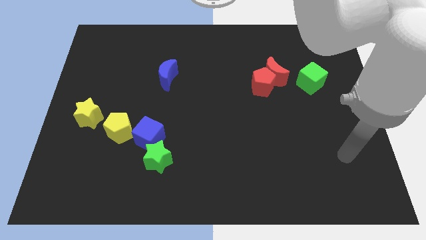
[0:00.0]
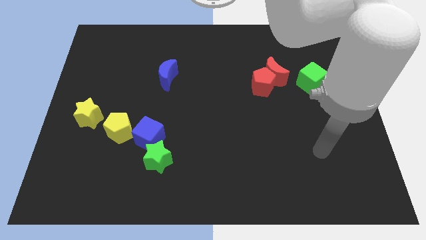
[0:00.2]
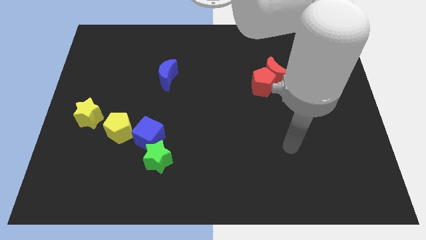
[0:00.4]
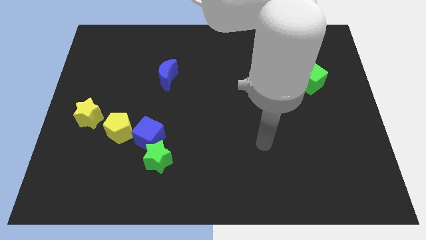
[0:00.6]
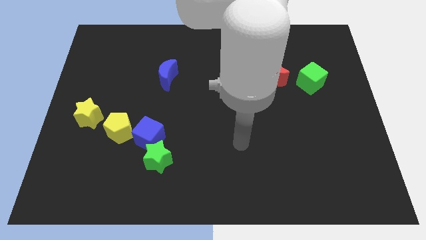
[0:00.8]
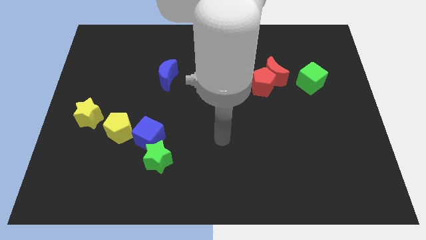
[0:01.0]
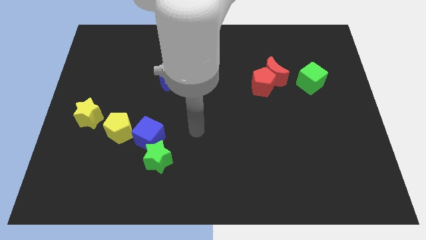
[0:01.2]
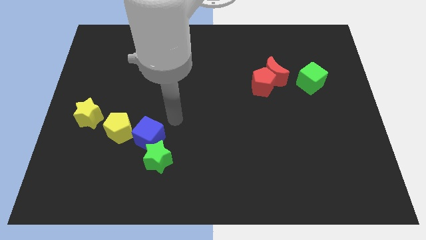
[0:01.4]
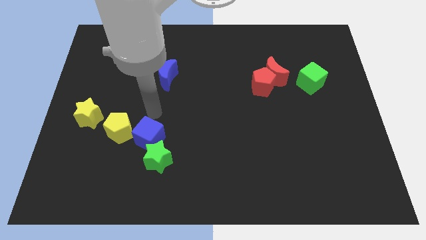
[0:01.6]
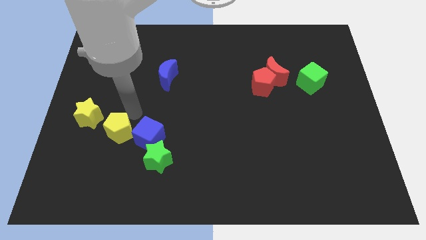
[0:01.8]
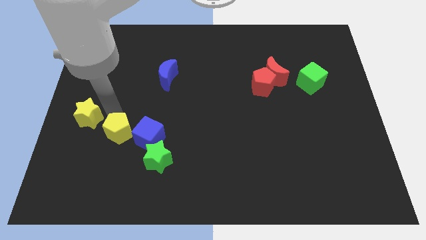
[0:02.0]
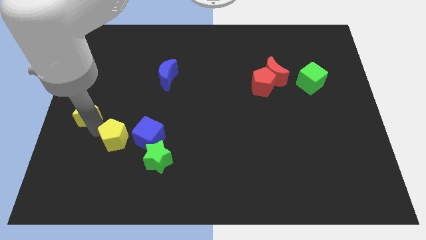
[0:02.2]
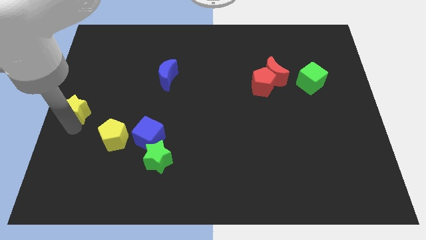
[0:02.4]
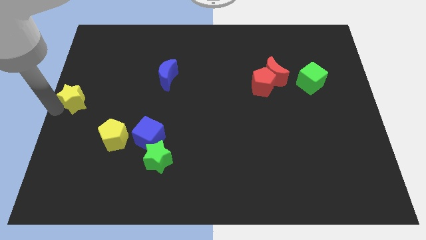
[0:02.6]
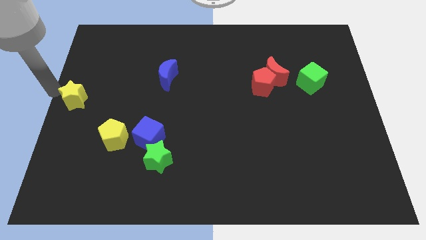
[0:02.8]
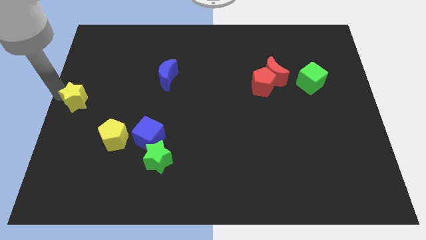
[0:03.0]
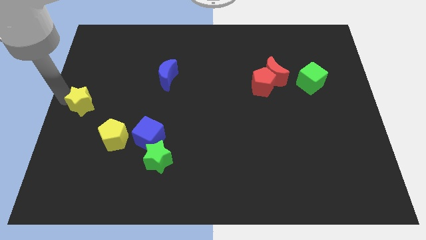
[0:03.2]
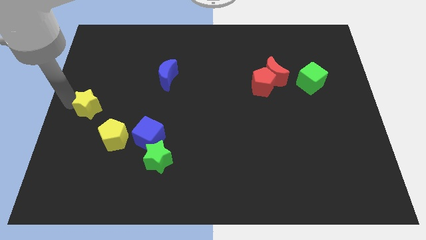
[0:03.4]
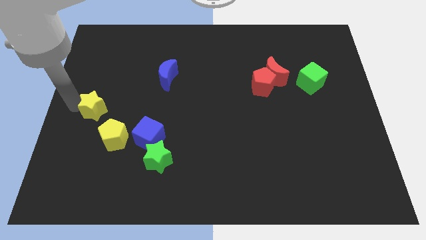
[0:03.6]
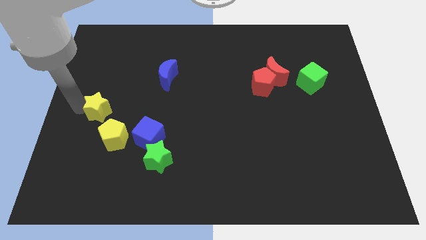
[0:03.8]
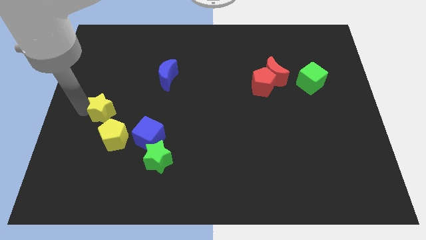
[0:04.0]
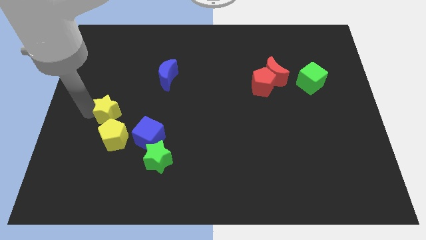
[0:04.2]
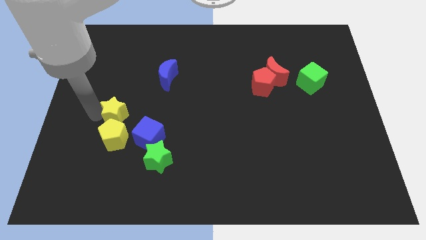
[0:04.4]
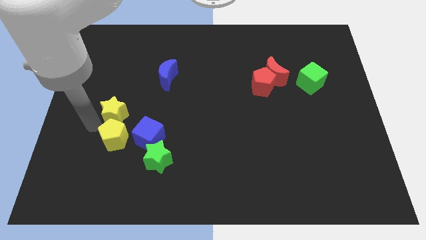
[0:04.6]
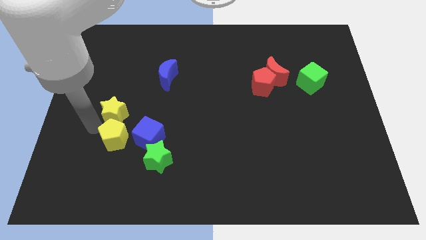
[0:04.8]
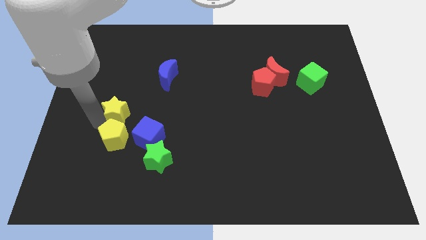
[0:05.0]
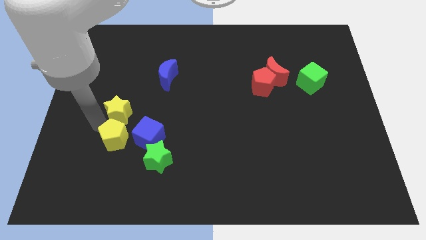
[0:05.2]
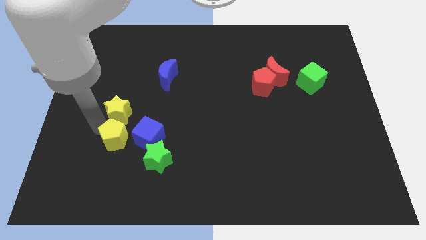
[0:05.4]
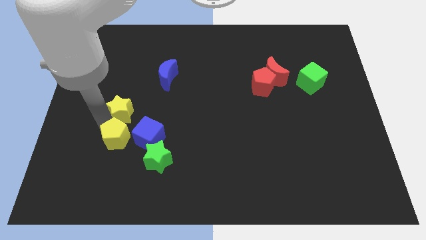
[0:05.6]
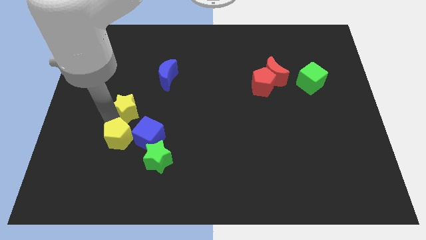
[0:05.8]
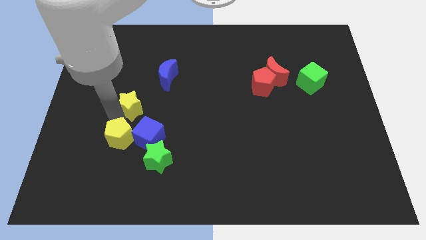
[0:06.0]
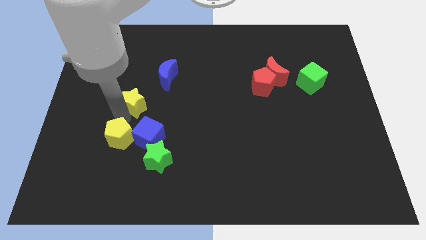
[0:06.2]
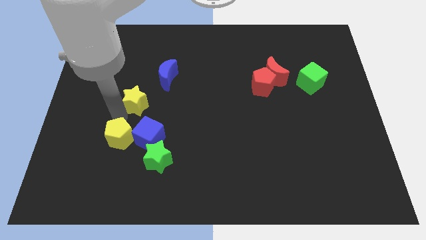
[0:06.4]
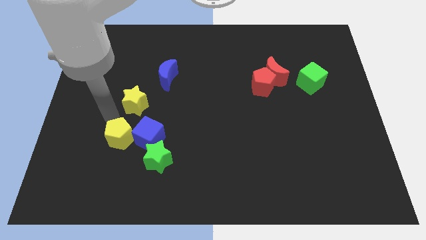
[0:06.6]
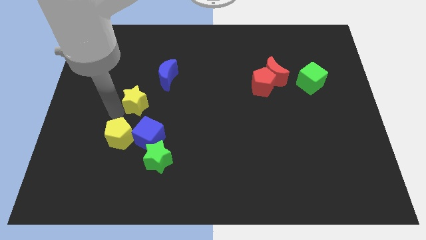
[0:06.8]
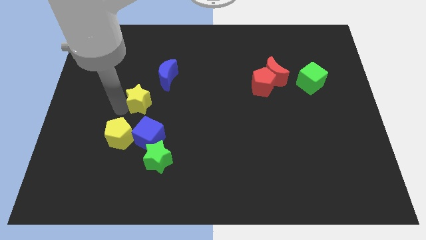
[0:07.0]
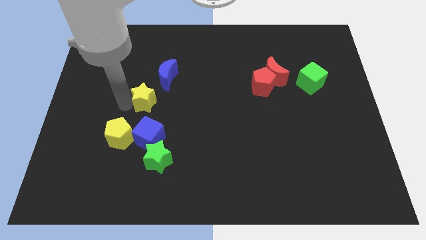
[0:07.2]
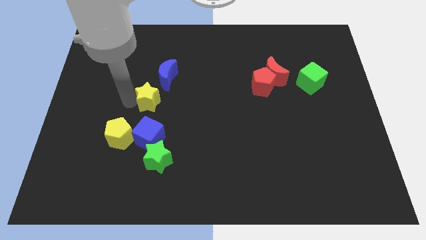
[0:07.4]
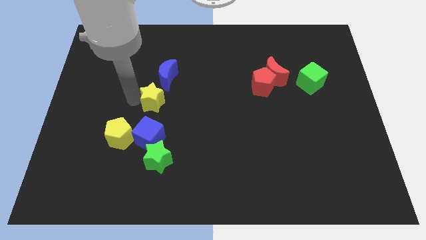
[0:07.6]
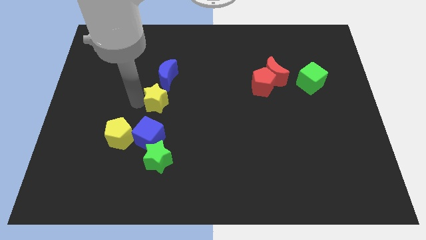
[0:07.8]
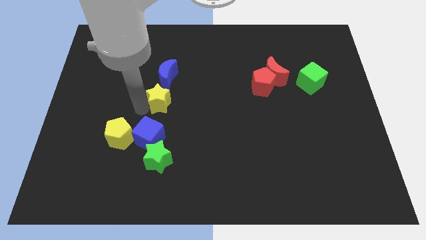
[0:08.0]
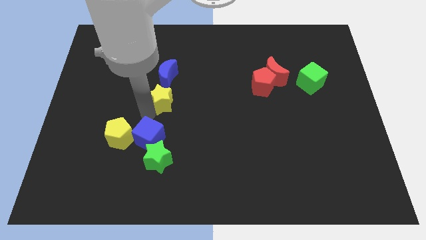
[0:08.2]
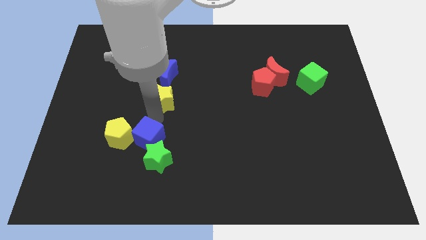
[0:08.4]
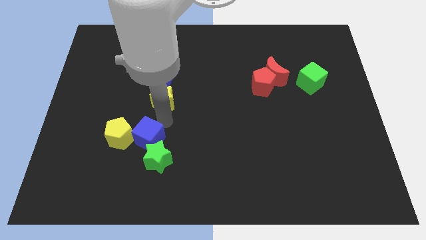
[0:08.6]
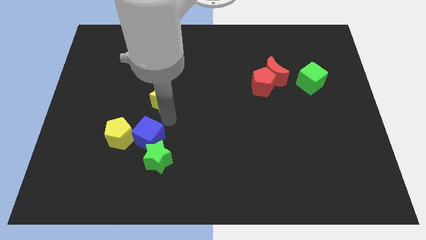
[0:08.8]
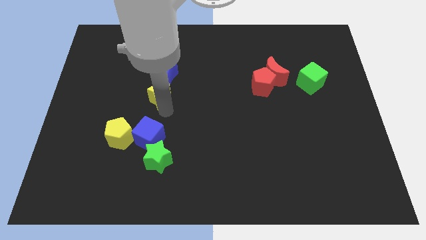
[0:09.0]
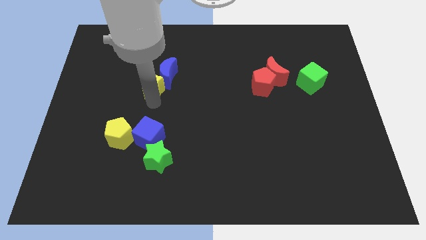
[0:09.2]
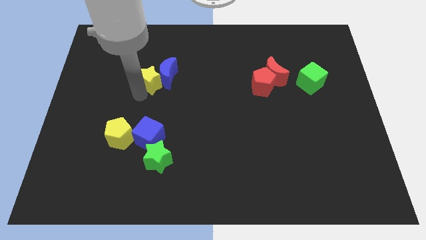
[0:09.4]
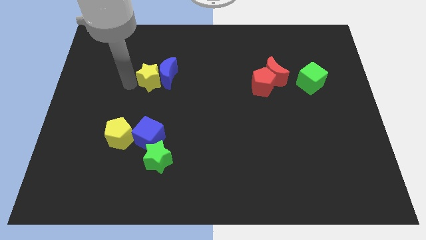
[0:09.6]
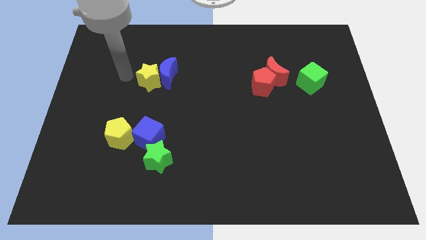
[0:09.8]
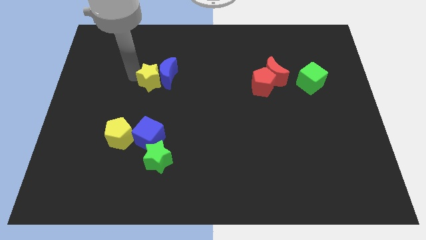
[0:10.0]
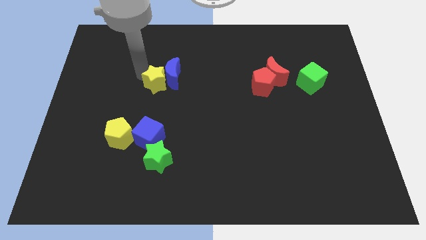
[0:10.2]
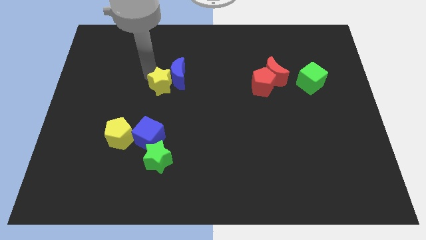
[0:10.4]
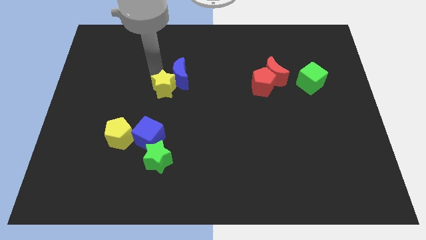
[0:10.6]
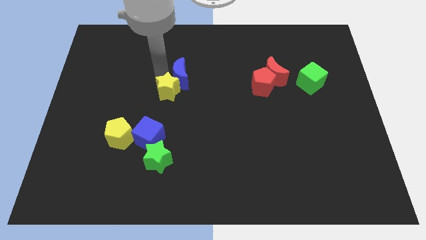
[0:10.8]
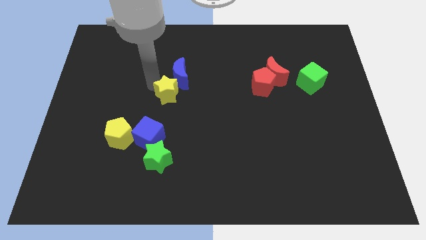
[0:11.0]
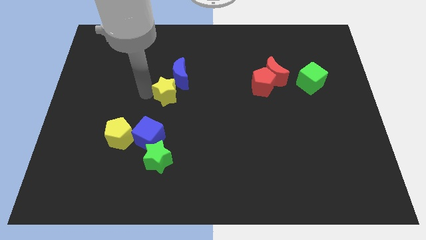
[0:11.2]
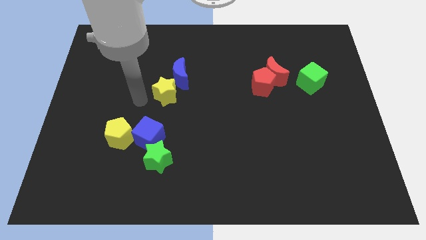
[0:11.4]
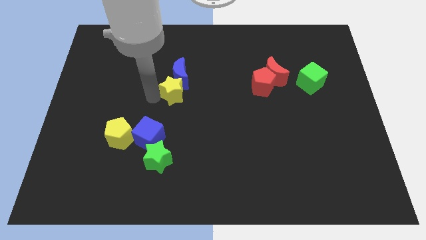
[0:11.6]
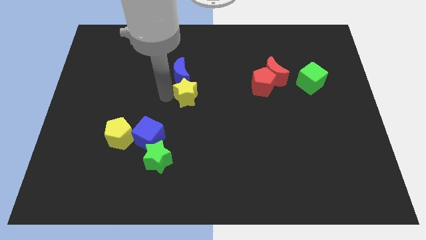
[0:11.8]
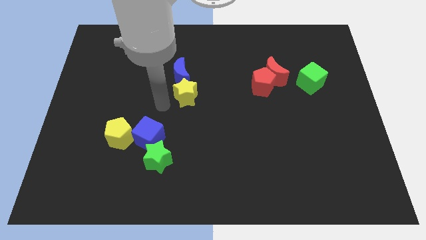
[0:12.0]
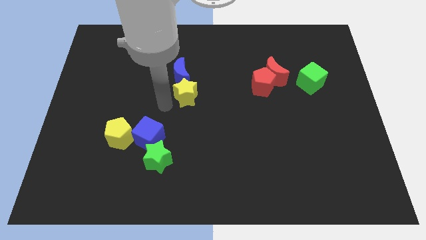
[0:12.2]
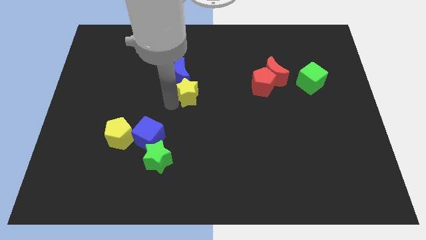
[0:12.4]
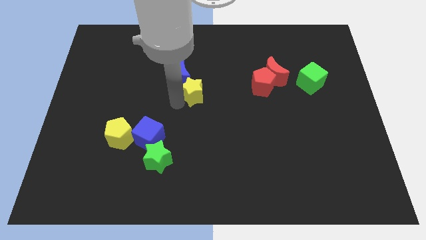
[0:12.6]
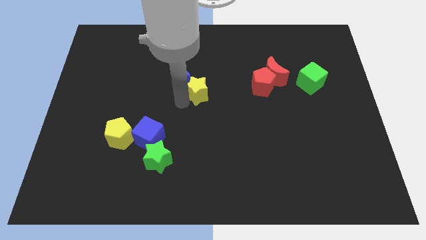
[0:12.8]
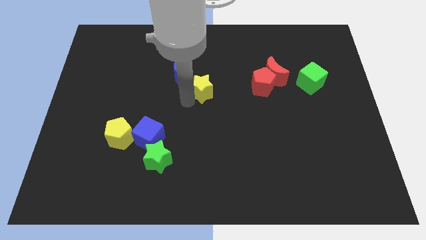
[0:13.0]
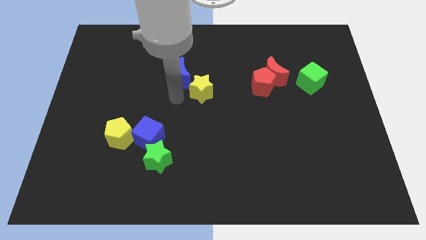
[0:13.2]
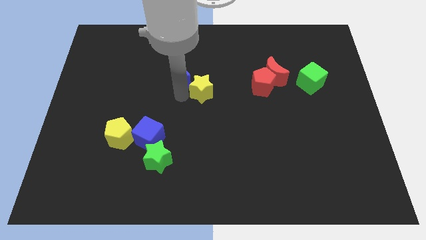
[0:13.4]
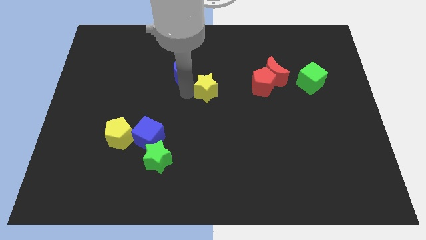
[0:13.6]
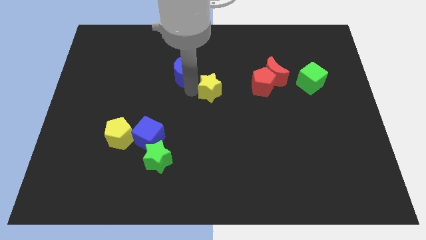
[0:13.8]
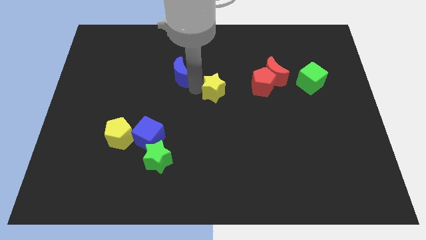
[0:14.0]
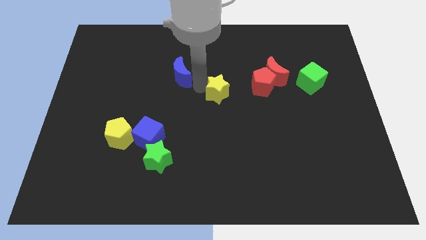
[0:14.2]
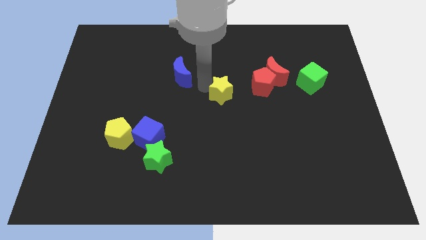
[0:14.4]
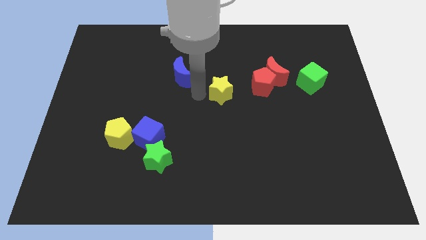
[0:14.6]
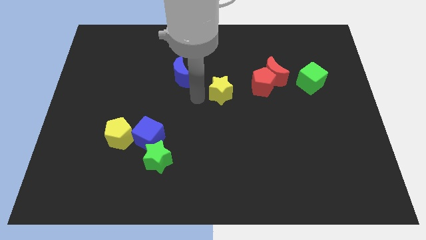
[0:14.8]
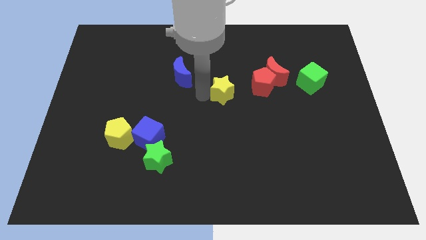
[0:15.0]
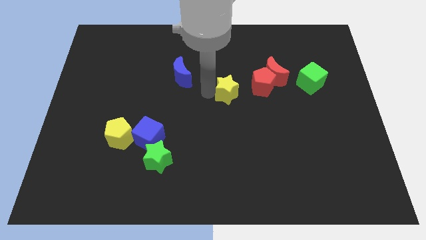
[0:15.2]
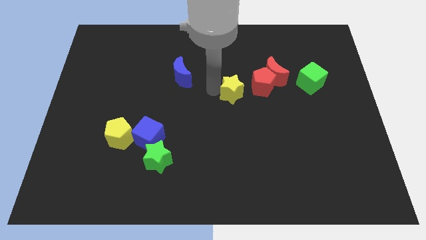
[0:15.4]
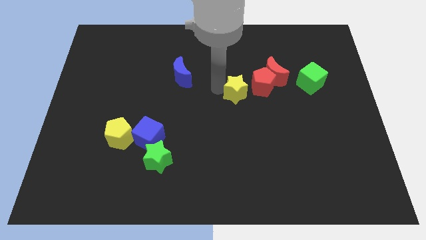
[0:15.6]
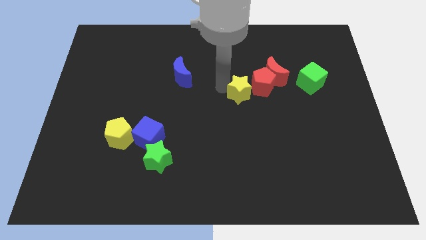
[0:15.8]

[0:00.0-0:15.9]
slide the yellow star next to the red pentagon
